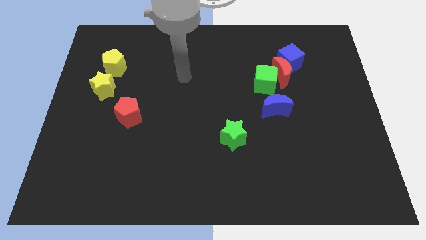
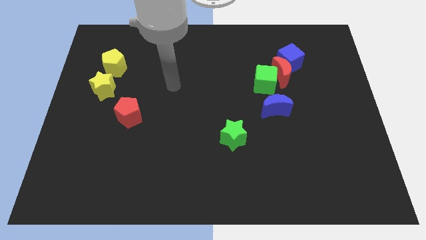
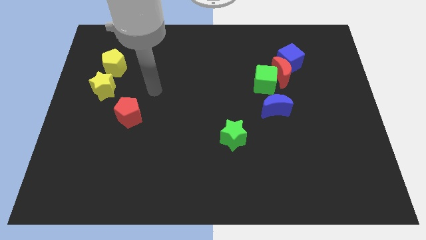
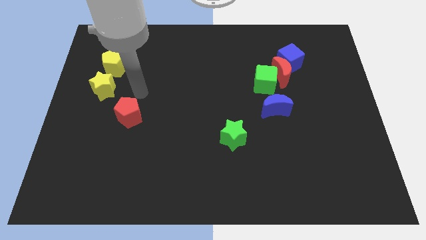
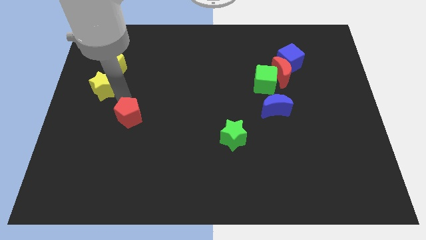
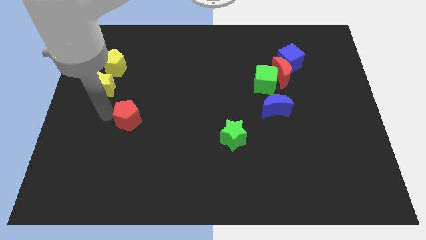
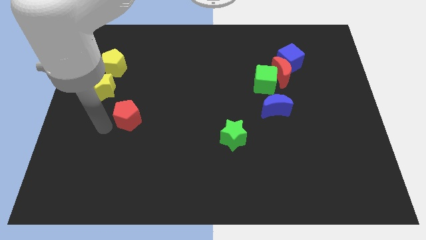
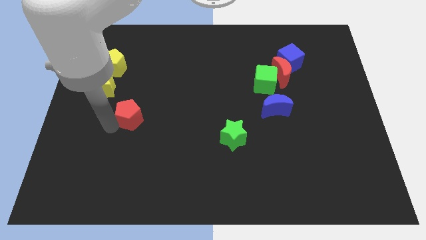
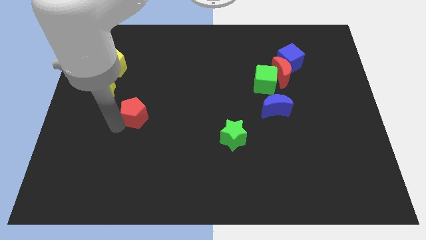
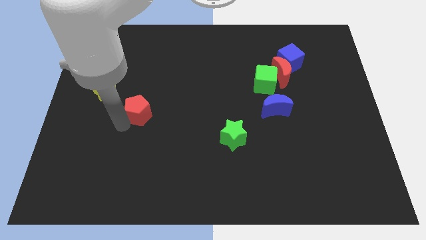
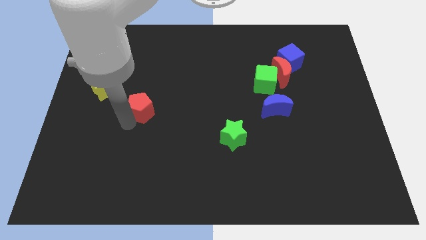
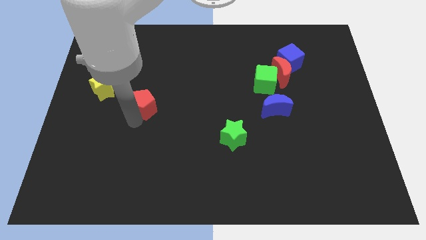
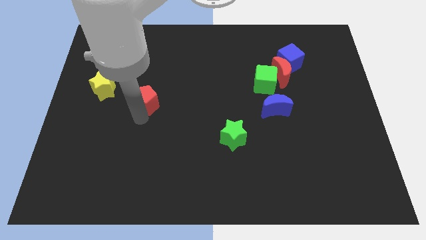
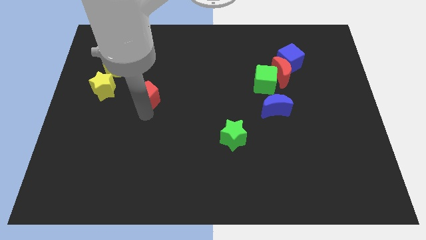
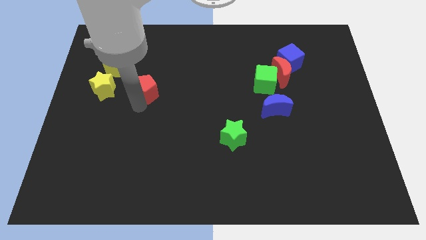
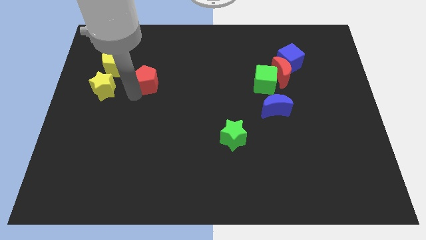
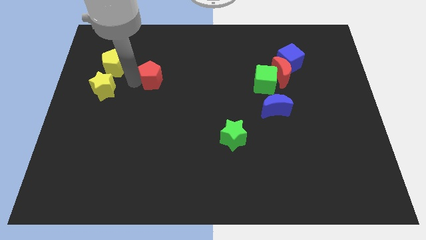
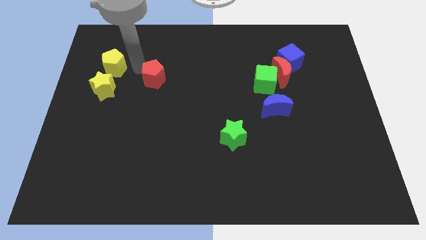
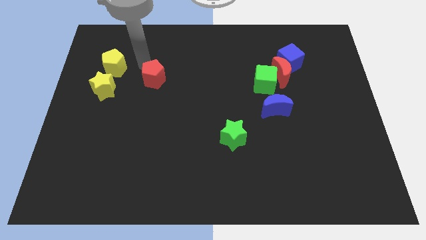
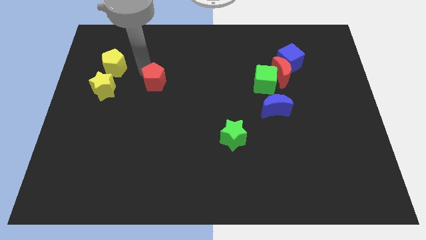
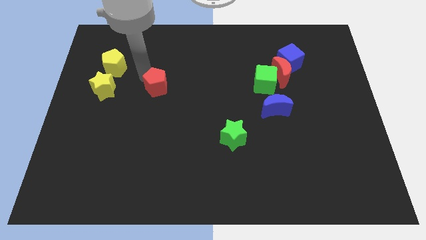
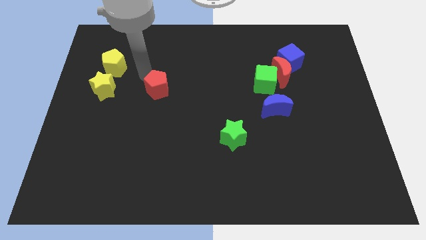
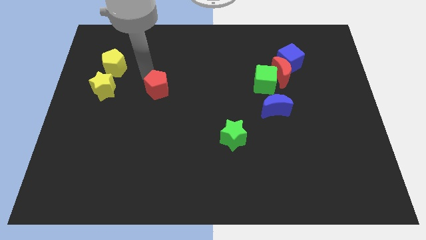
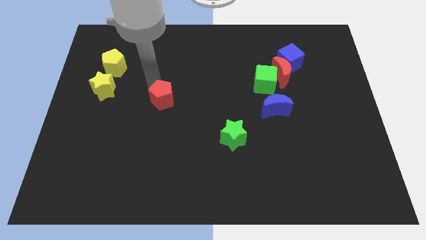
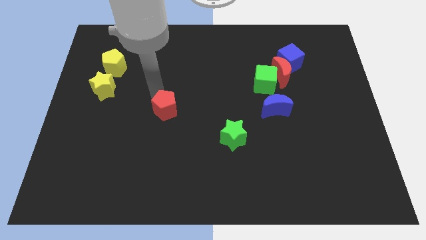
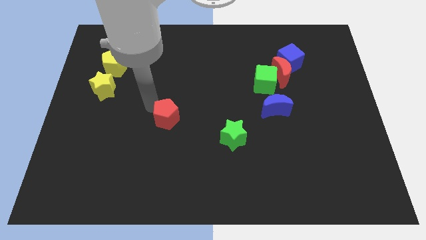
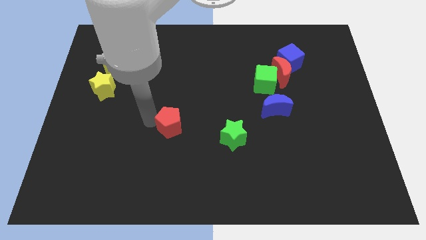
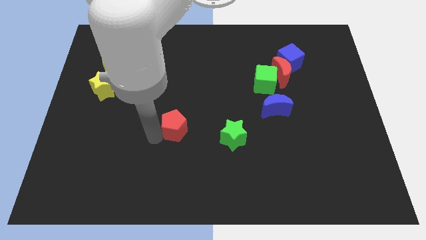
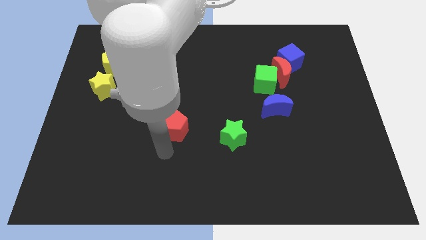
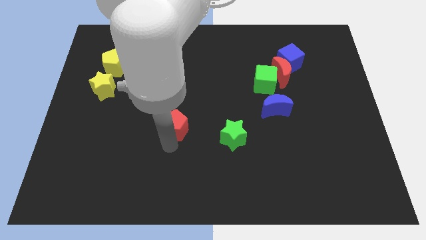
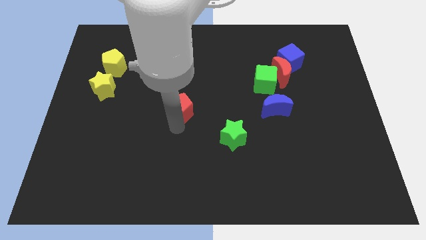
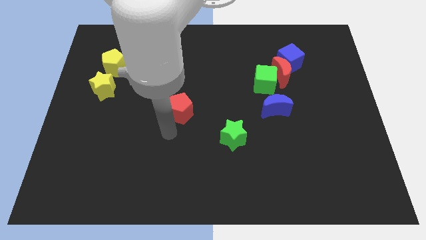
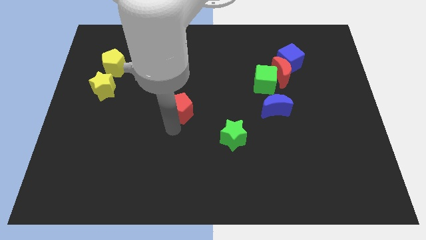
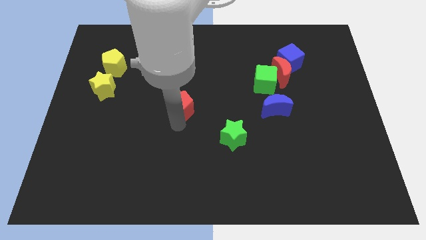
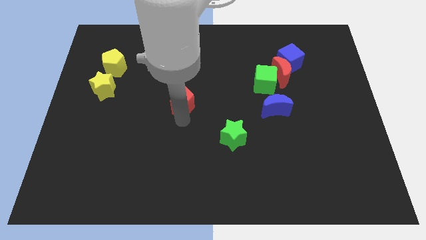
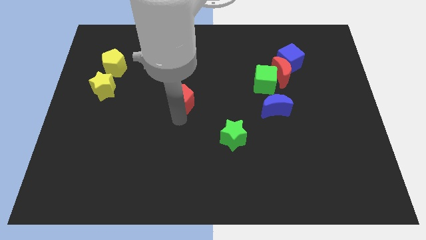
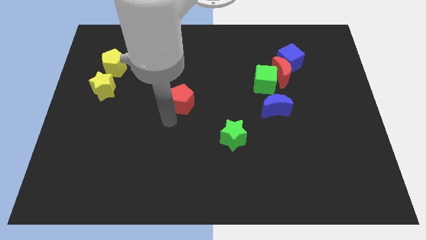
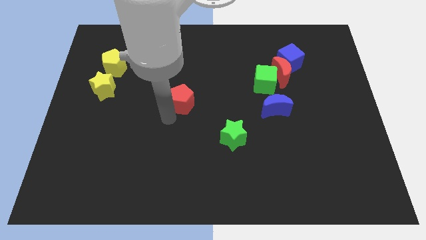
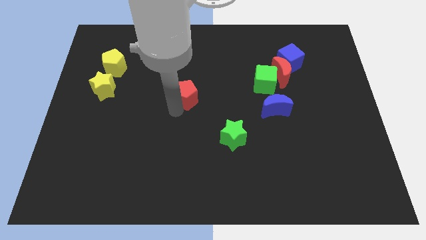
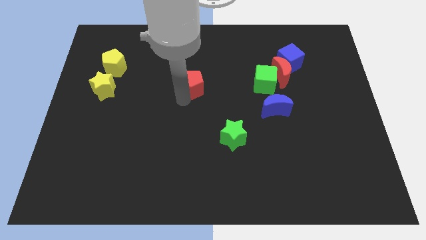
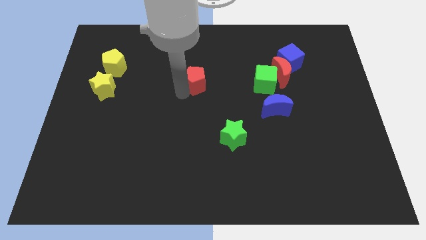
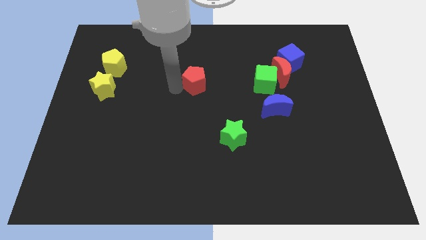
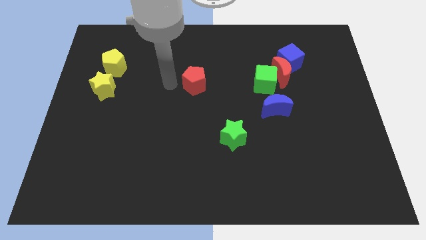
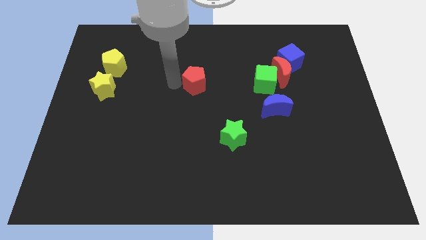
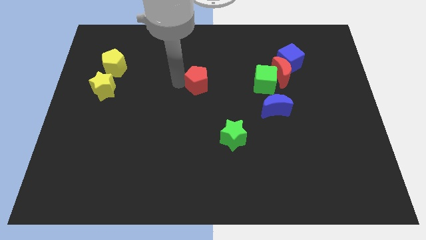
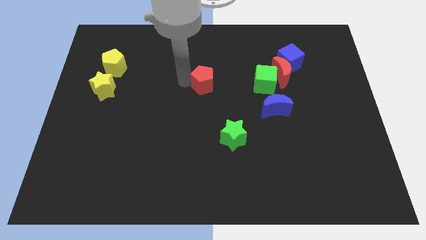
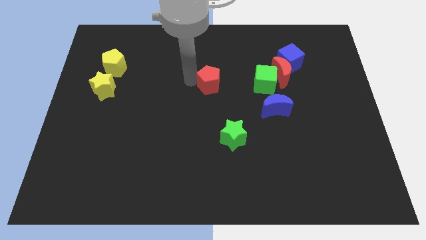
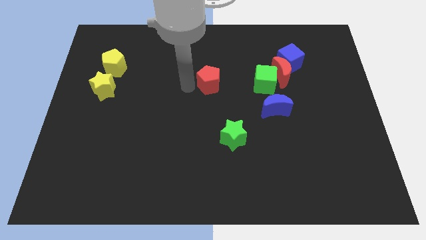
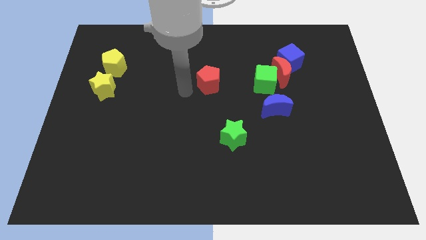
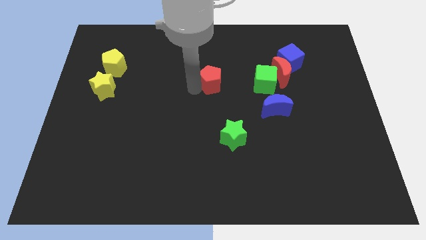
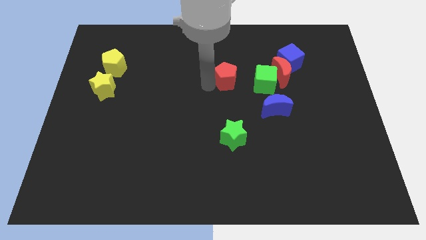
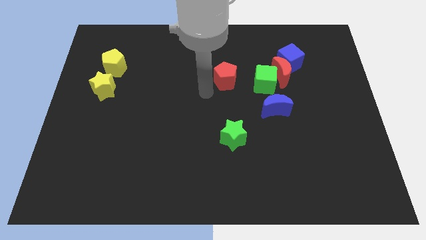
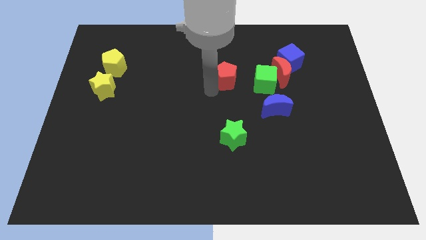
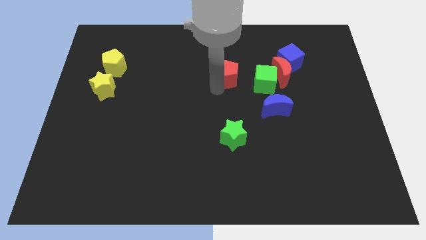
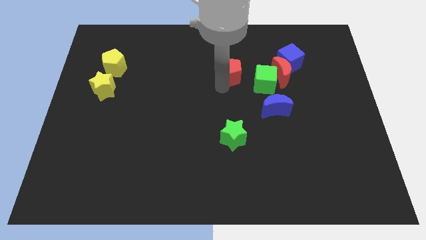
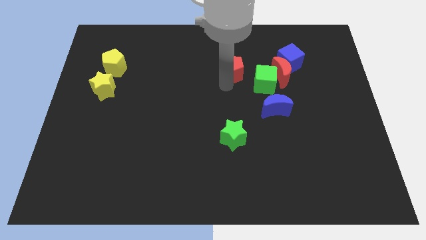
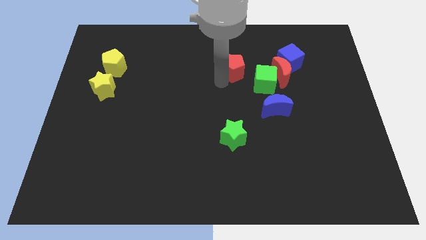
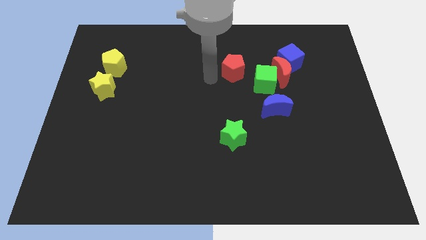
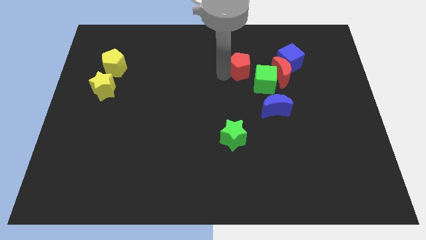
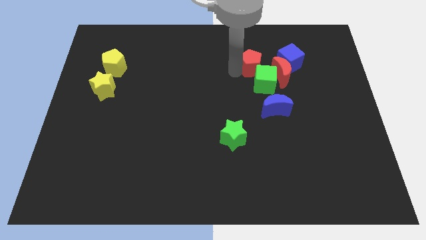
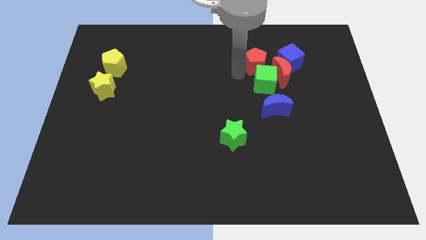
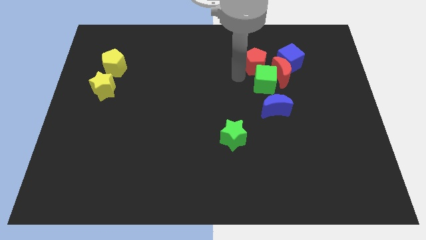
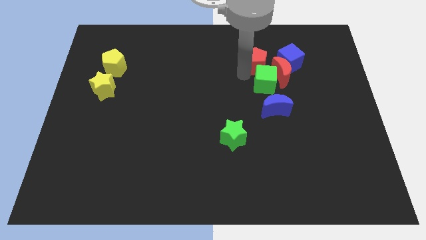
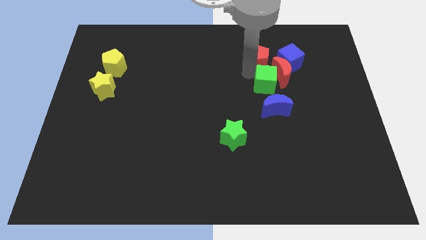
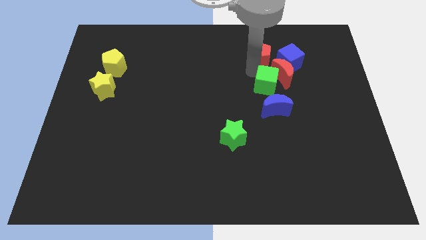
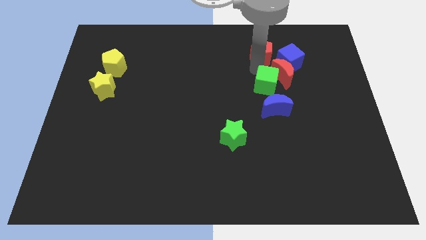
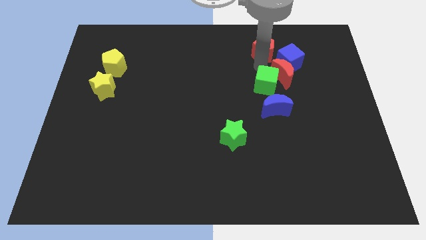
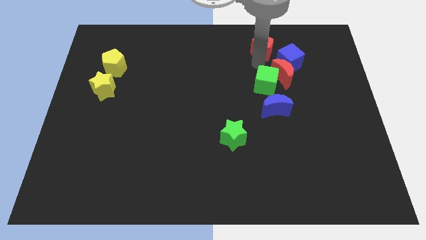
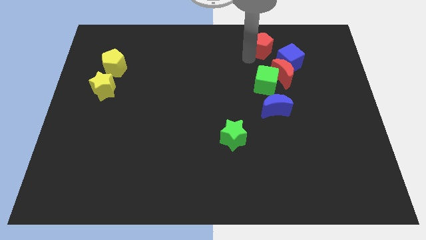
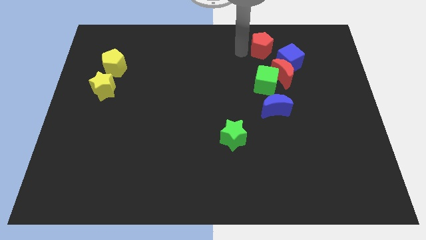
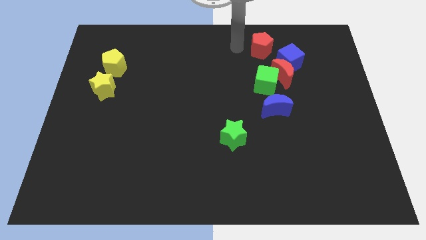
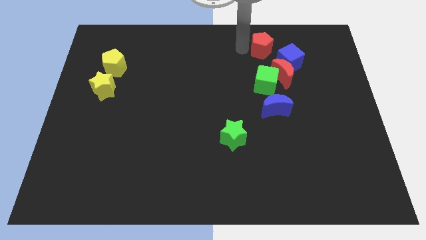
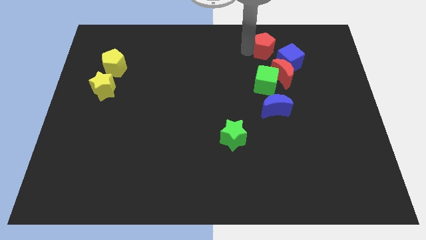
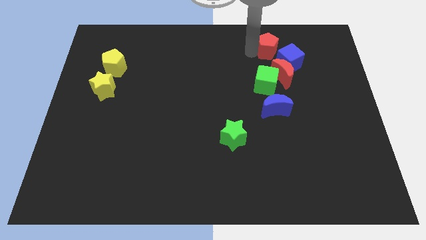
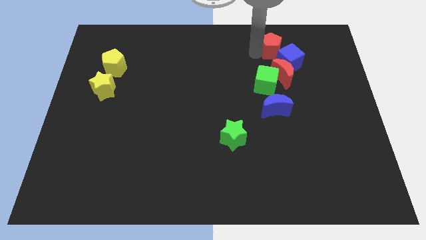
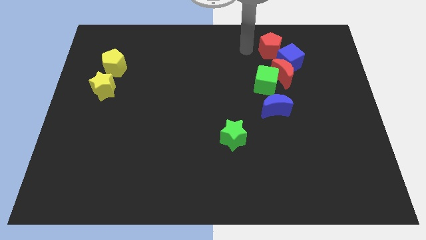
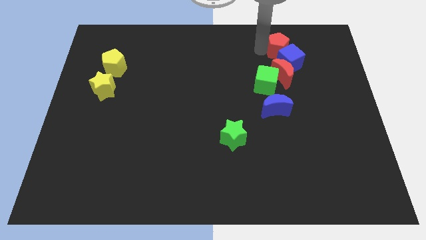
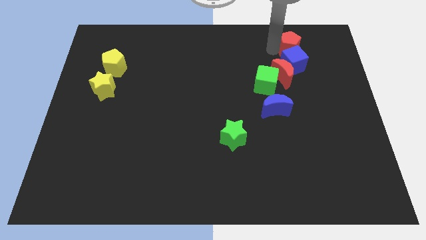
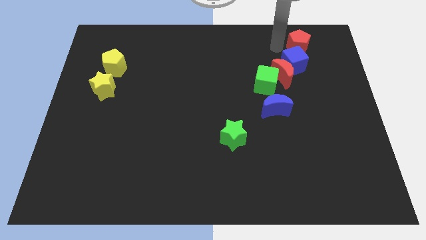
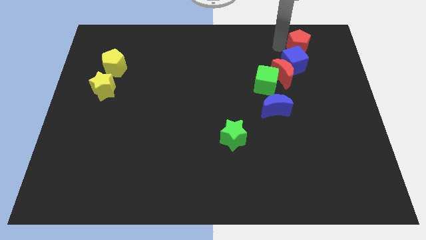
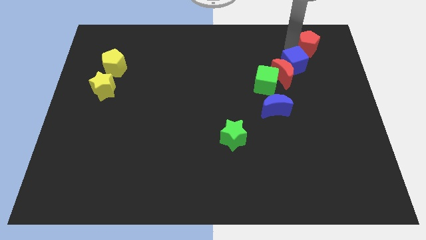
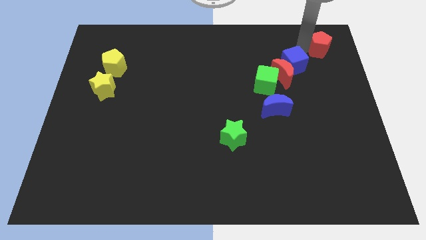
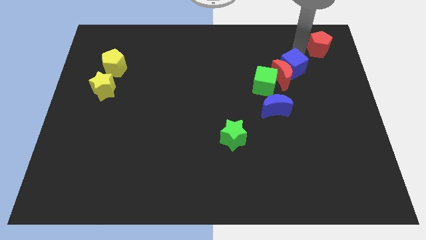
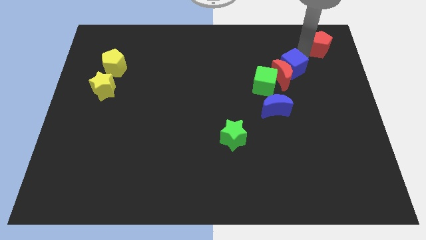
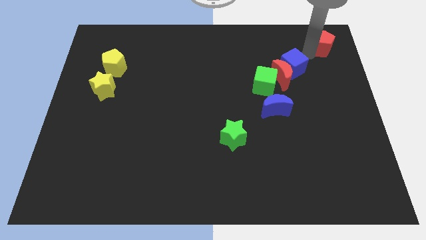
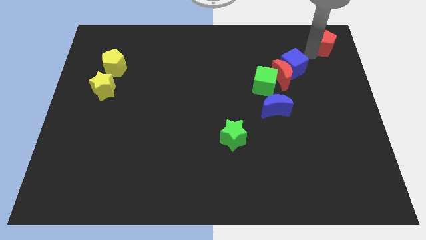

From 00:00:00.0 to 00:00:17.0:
slide the red pentagon to the top right of the board
